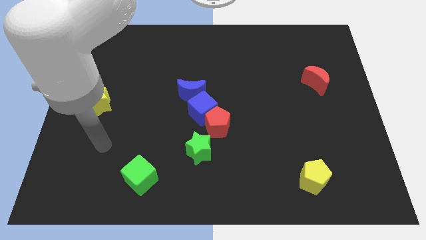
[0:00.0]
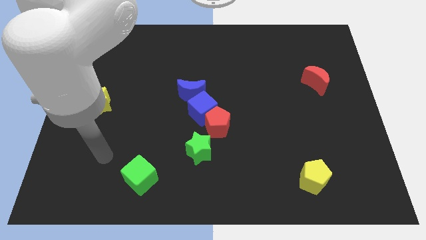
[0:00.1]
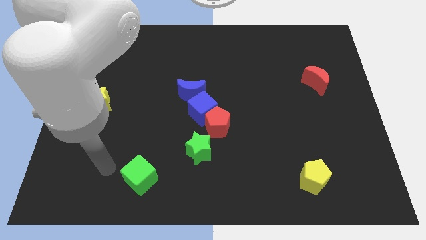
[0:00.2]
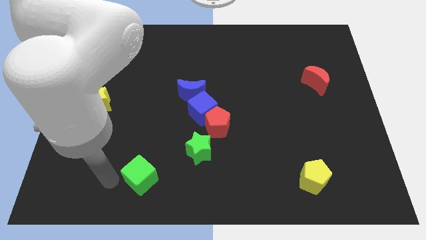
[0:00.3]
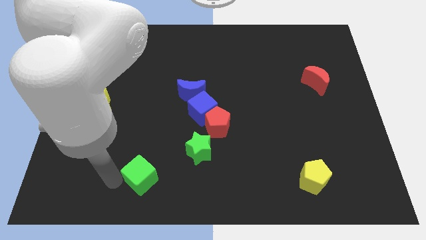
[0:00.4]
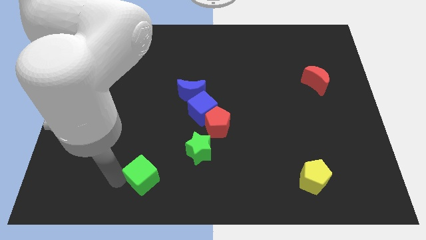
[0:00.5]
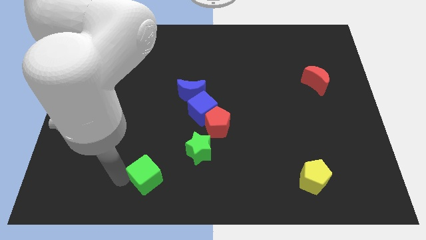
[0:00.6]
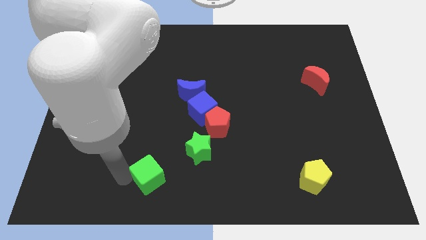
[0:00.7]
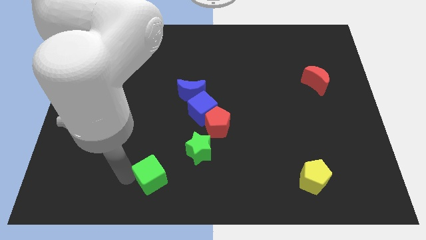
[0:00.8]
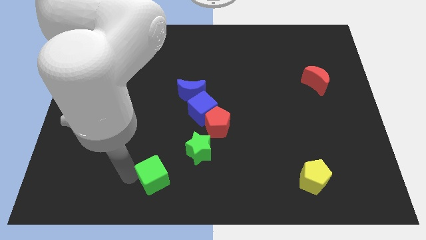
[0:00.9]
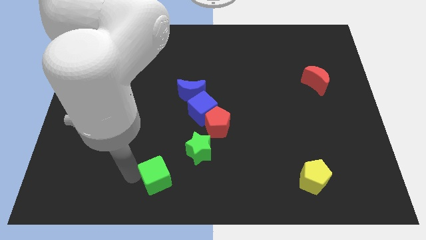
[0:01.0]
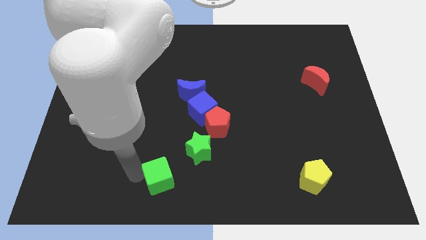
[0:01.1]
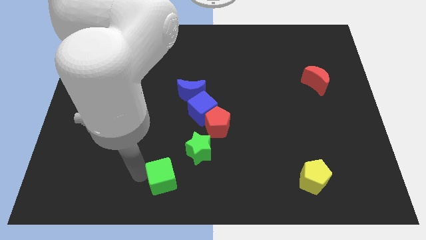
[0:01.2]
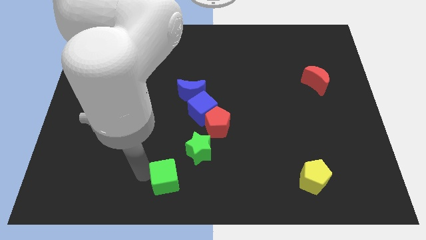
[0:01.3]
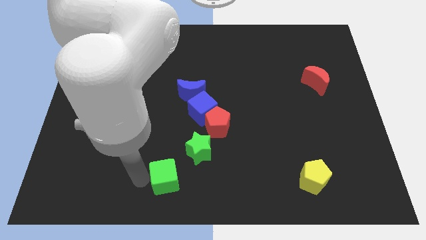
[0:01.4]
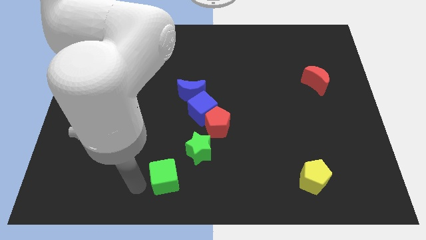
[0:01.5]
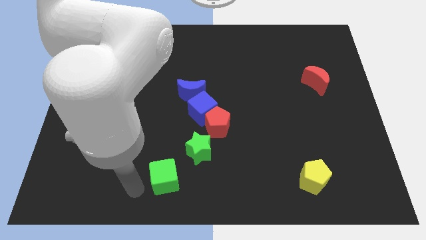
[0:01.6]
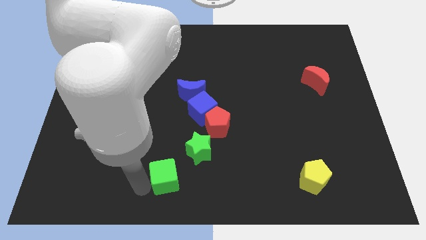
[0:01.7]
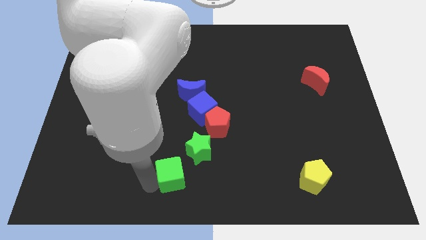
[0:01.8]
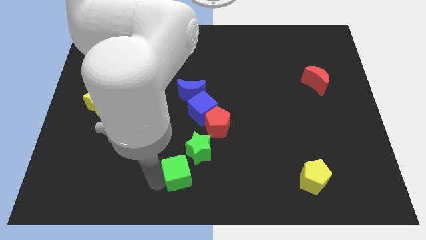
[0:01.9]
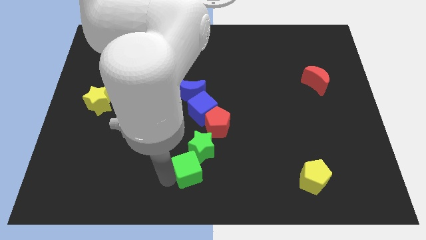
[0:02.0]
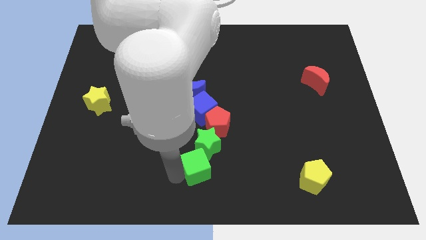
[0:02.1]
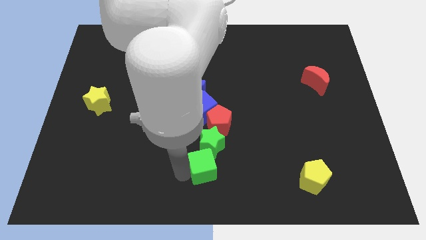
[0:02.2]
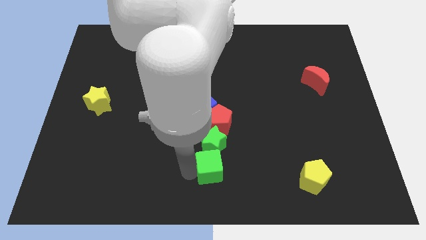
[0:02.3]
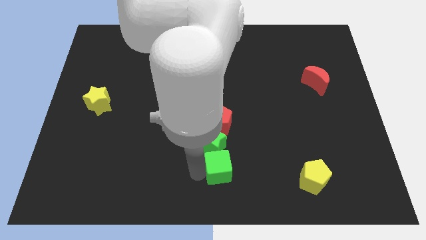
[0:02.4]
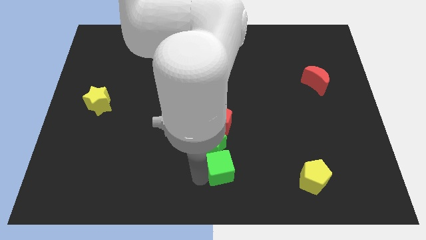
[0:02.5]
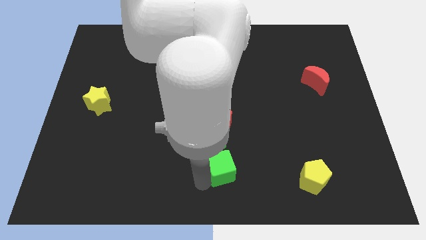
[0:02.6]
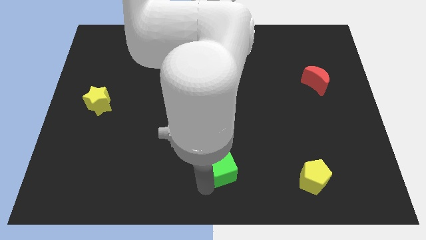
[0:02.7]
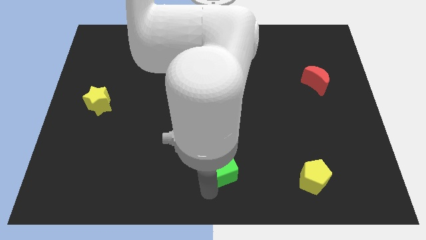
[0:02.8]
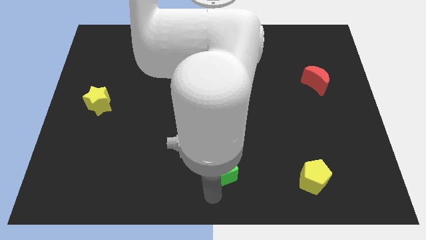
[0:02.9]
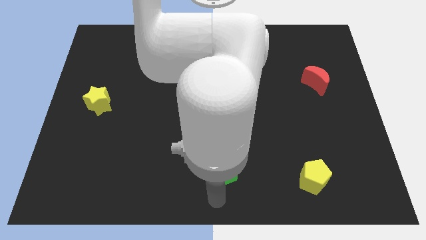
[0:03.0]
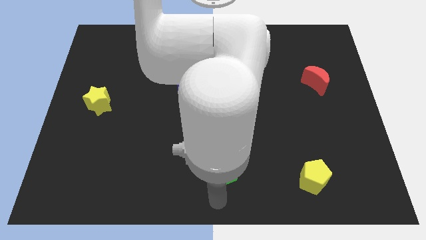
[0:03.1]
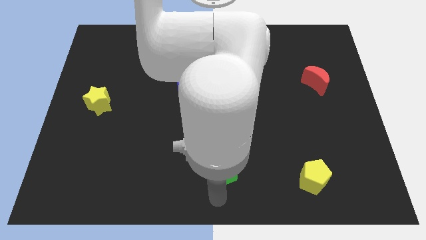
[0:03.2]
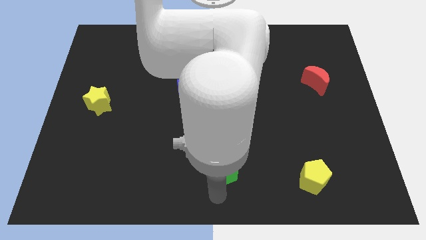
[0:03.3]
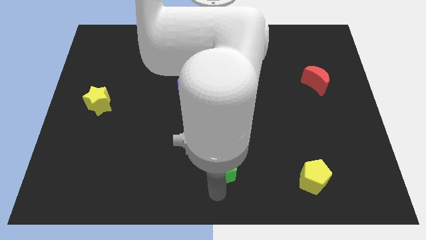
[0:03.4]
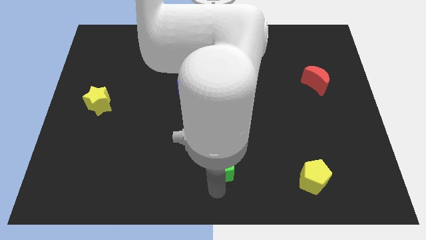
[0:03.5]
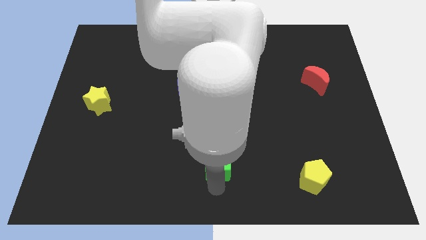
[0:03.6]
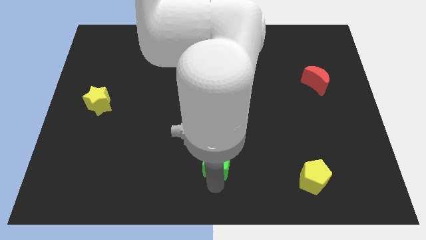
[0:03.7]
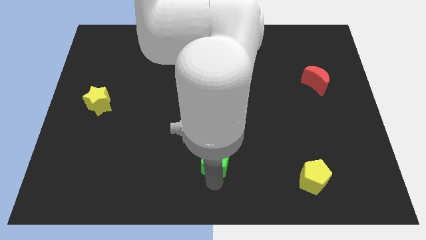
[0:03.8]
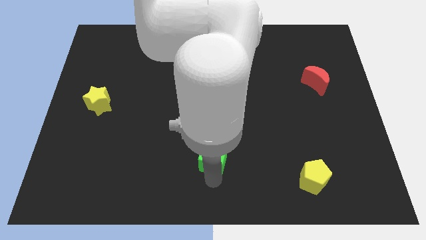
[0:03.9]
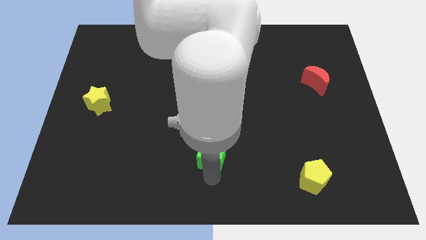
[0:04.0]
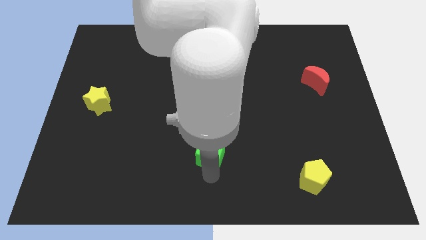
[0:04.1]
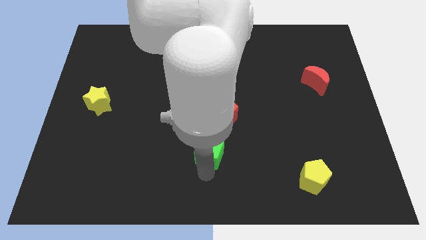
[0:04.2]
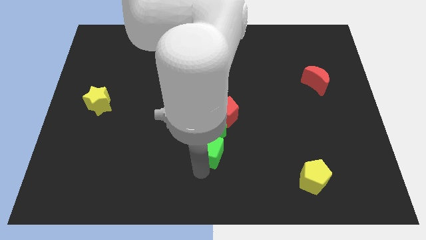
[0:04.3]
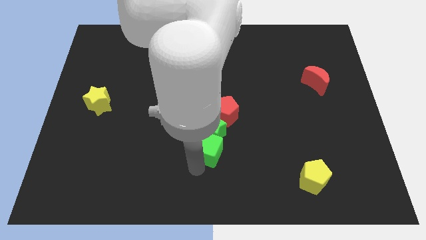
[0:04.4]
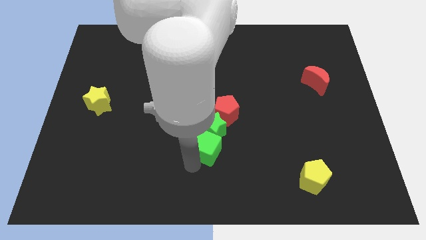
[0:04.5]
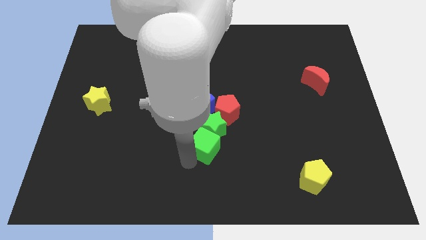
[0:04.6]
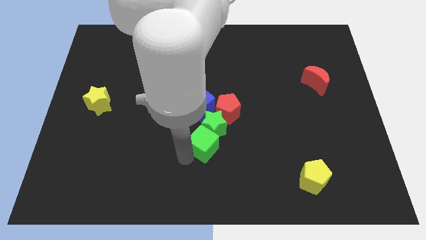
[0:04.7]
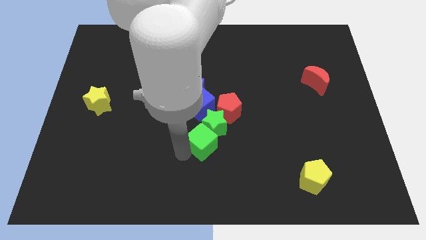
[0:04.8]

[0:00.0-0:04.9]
put the green cube to the middle of the board

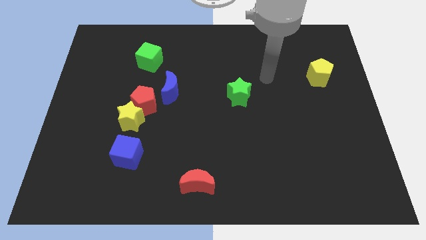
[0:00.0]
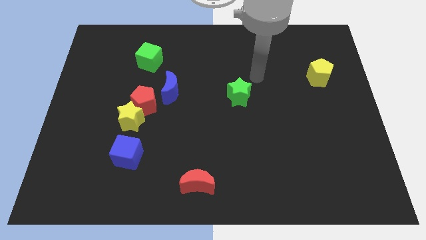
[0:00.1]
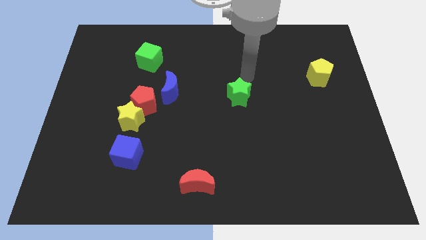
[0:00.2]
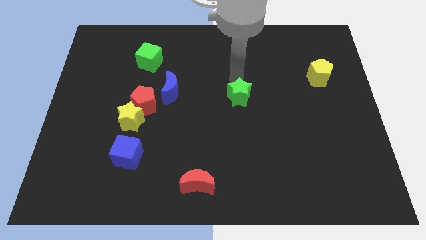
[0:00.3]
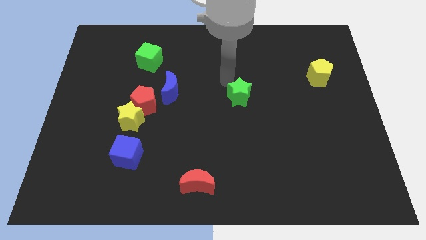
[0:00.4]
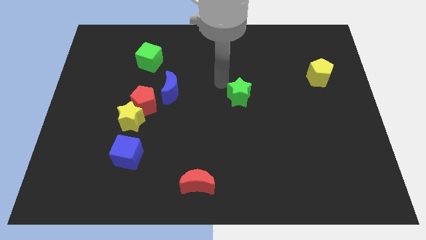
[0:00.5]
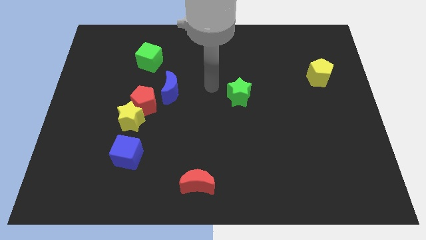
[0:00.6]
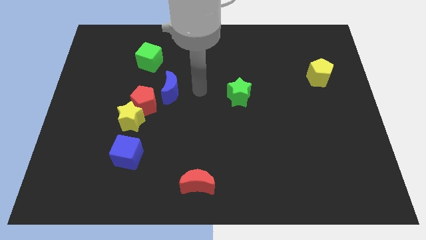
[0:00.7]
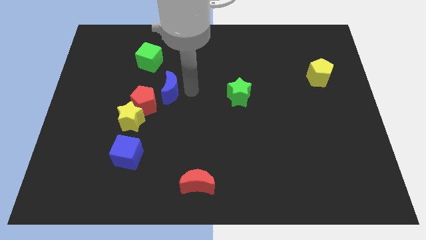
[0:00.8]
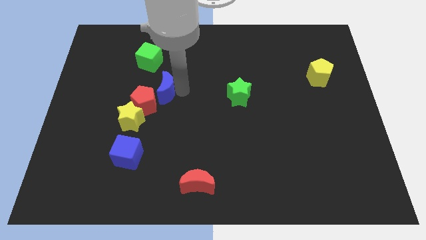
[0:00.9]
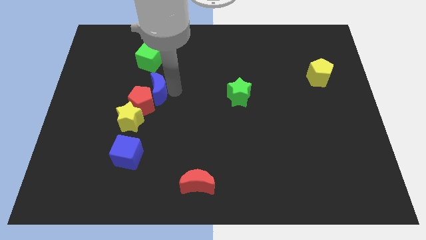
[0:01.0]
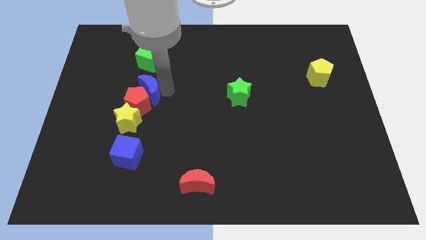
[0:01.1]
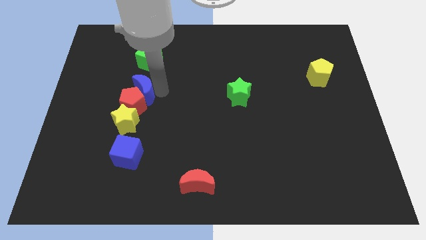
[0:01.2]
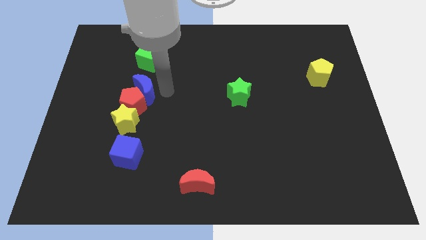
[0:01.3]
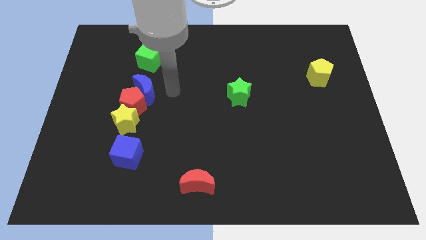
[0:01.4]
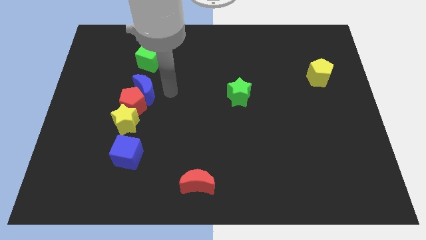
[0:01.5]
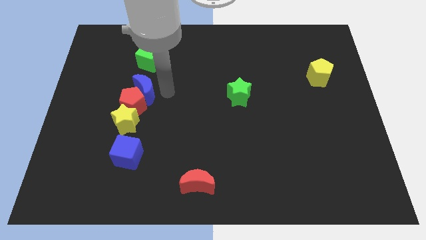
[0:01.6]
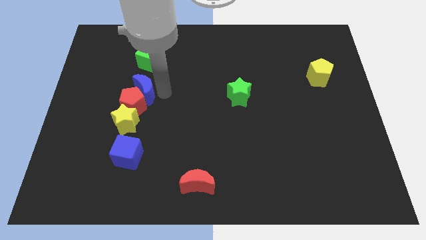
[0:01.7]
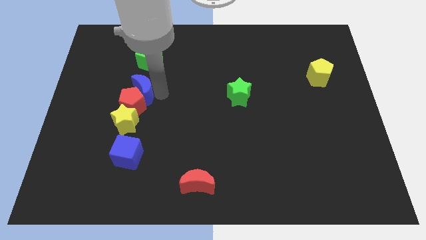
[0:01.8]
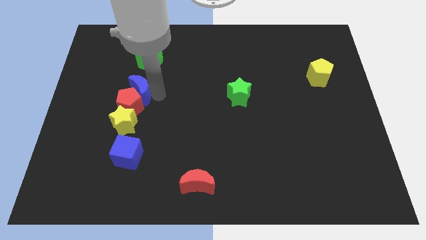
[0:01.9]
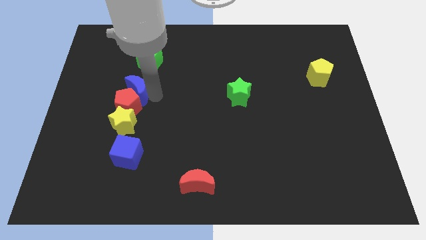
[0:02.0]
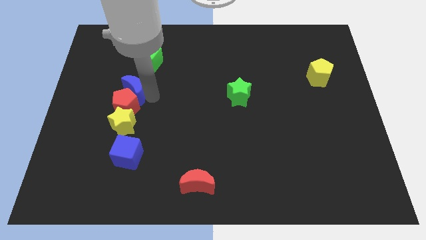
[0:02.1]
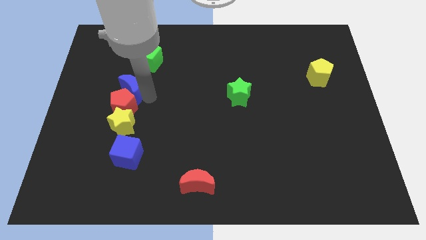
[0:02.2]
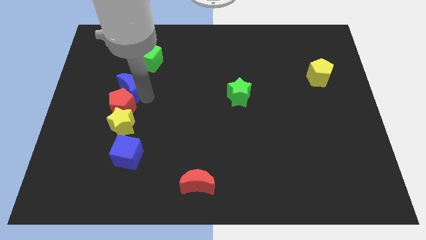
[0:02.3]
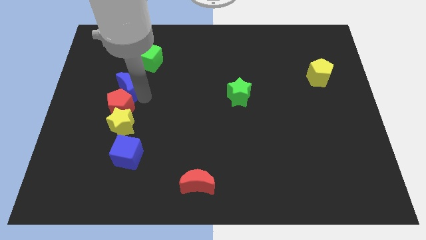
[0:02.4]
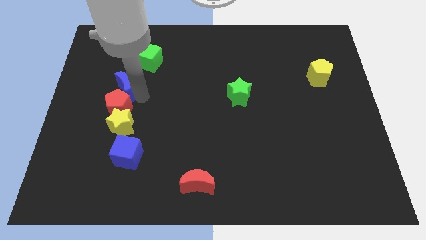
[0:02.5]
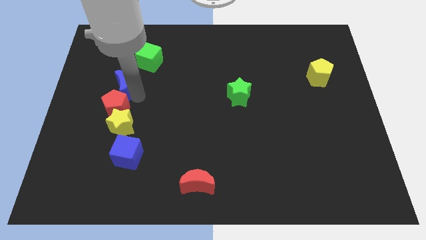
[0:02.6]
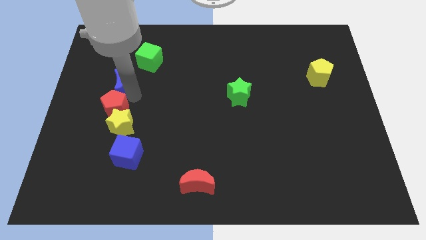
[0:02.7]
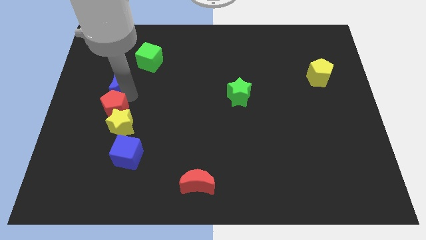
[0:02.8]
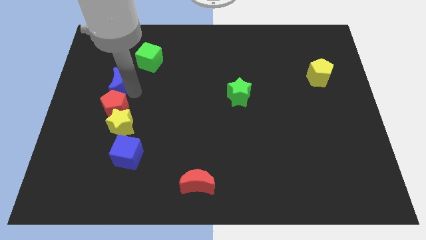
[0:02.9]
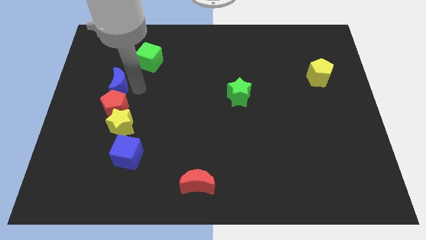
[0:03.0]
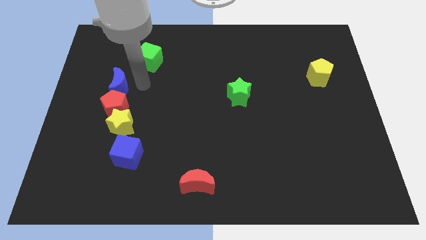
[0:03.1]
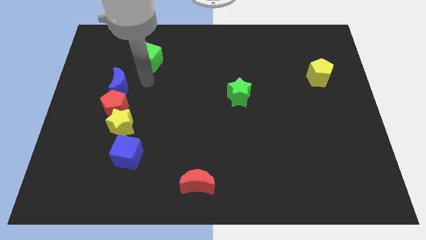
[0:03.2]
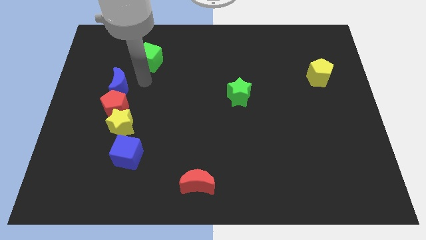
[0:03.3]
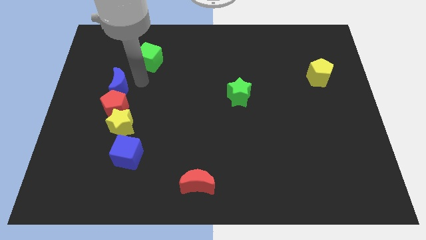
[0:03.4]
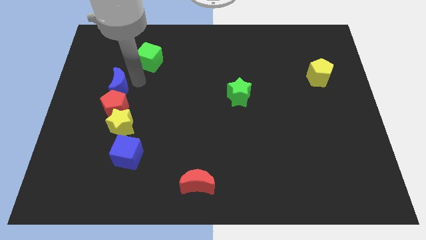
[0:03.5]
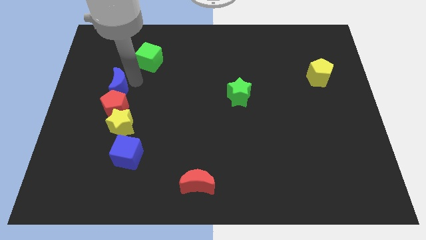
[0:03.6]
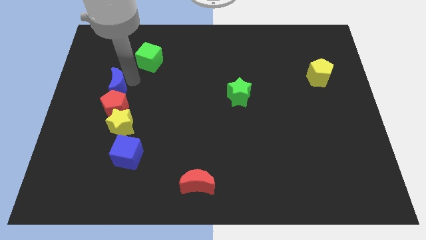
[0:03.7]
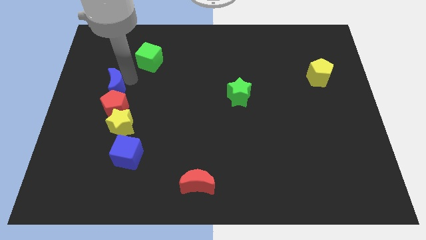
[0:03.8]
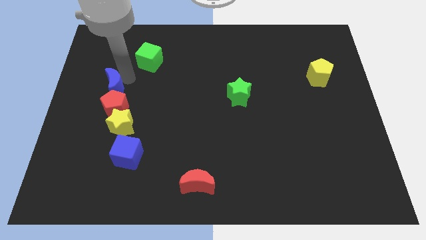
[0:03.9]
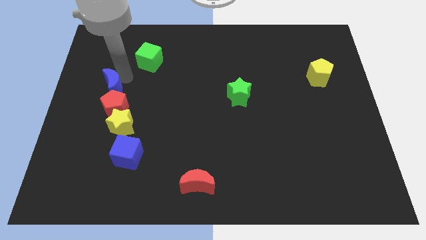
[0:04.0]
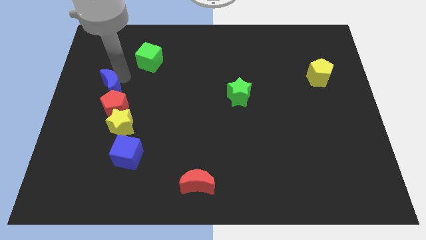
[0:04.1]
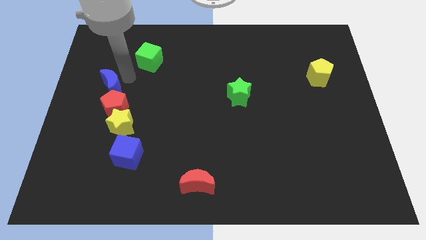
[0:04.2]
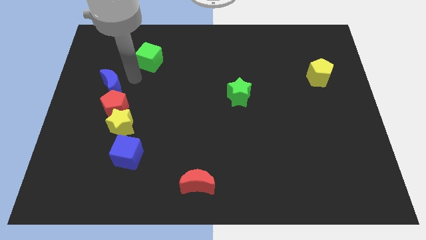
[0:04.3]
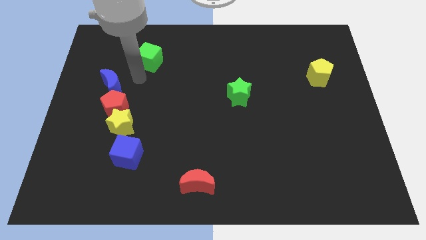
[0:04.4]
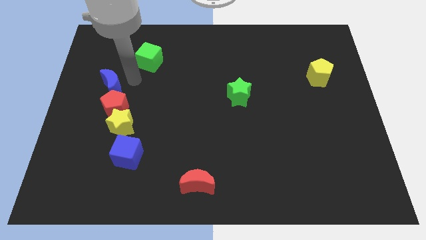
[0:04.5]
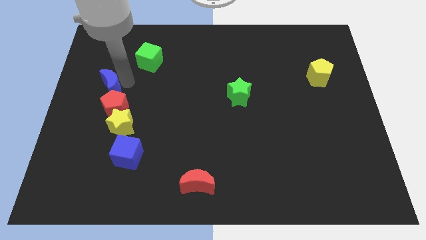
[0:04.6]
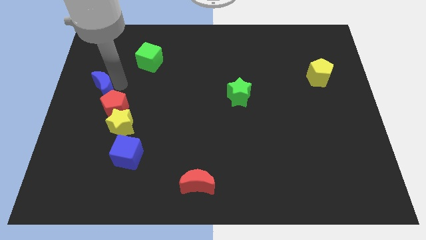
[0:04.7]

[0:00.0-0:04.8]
slide the blue moon to the center left
